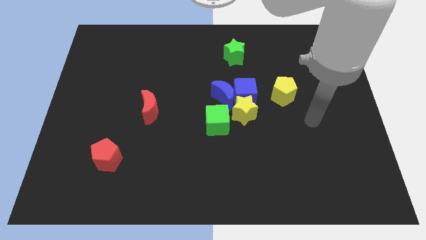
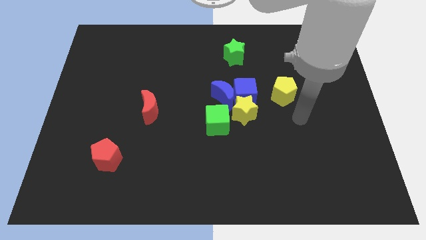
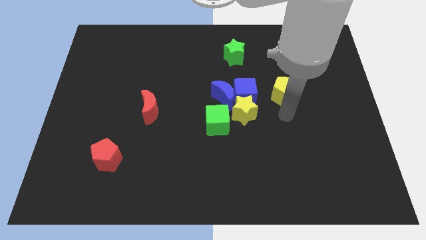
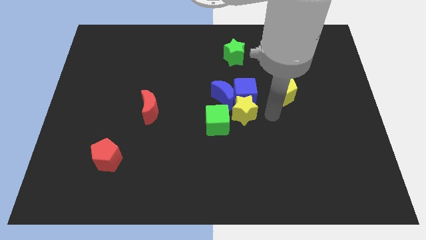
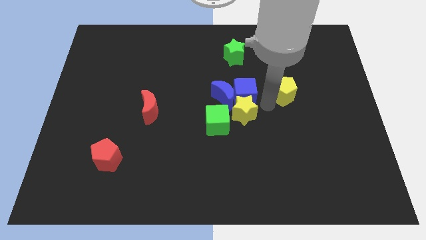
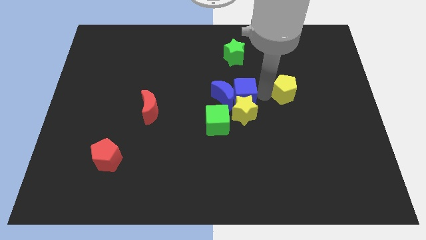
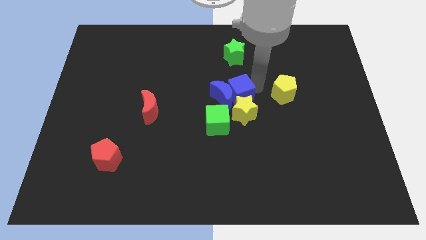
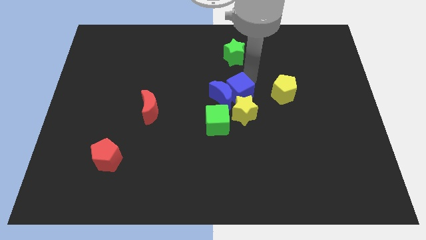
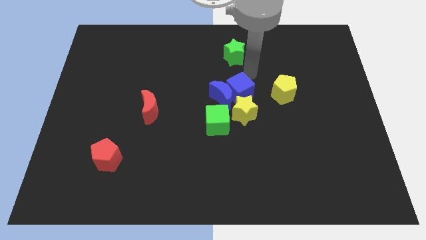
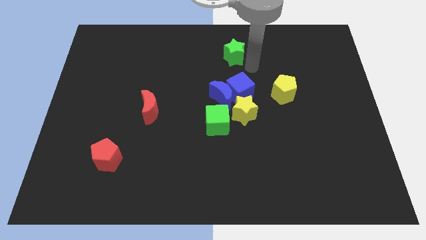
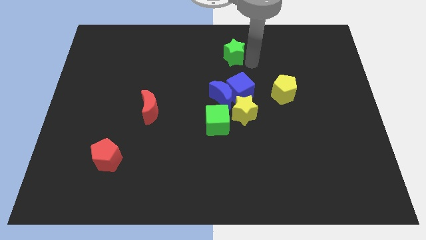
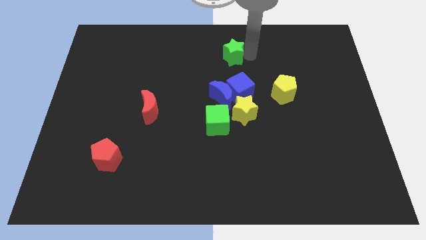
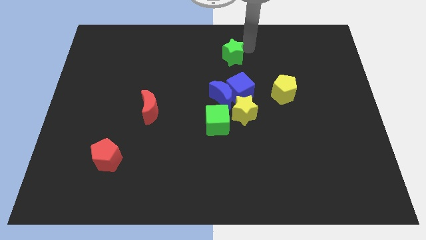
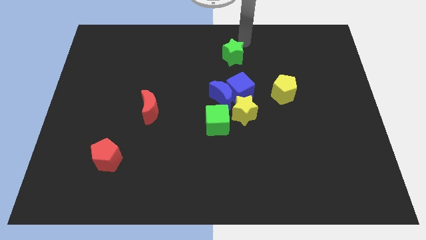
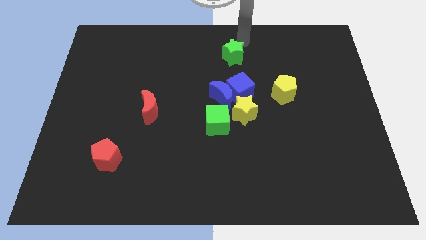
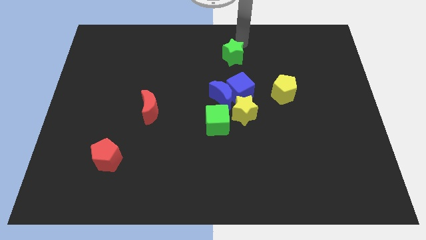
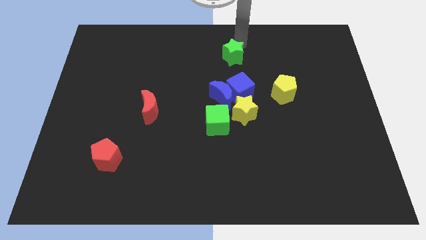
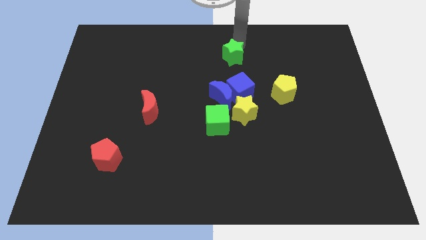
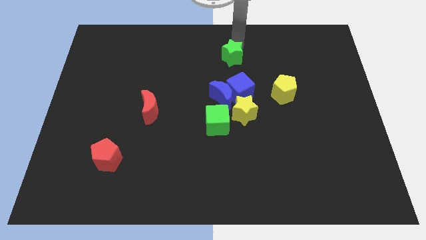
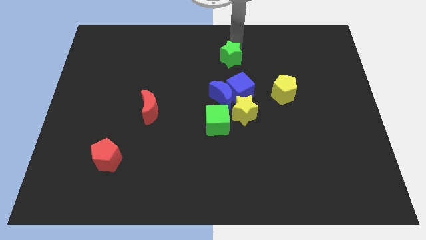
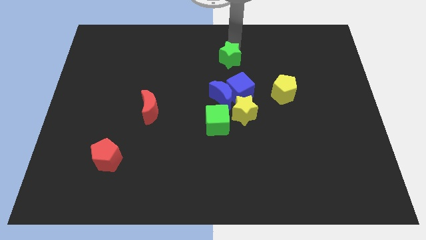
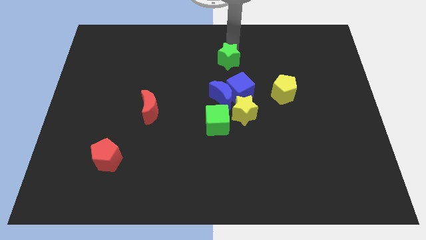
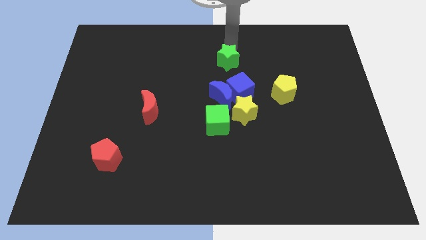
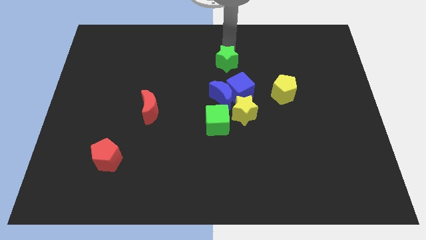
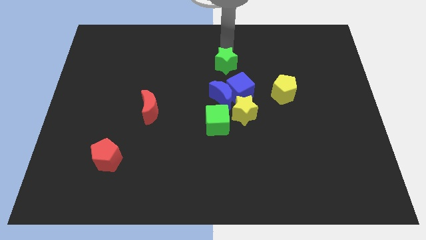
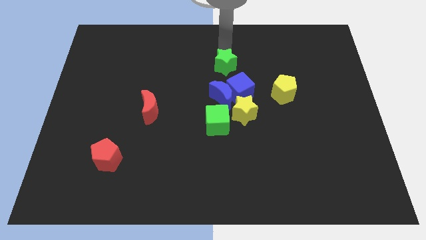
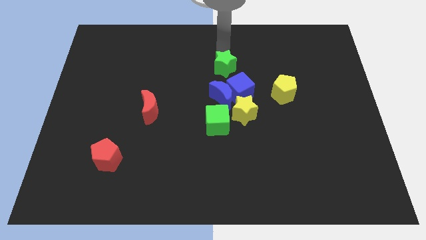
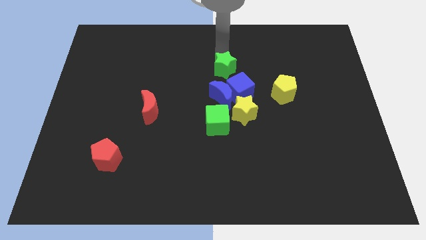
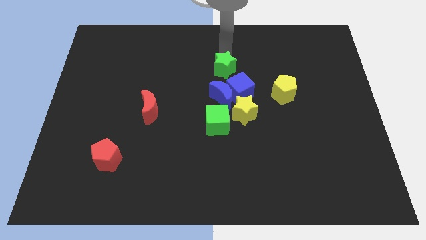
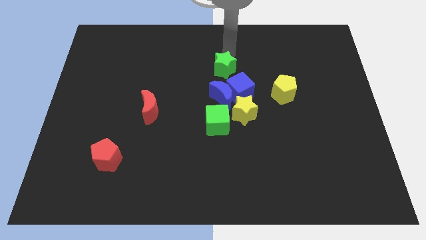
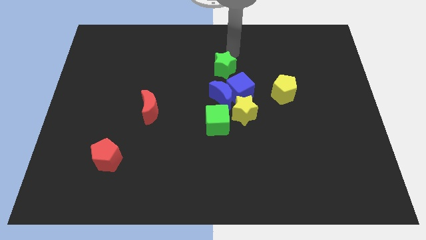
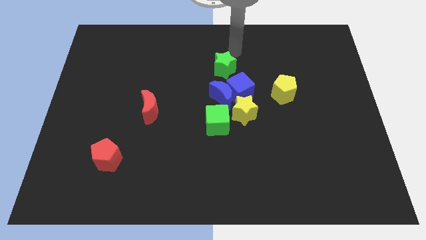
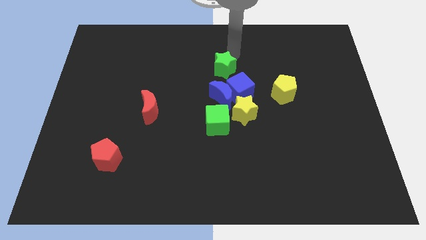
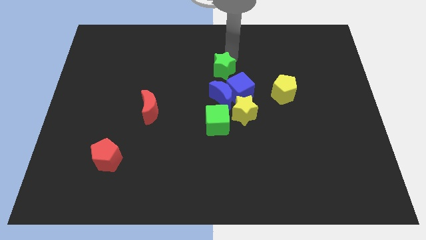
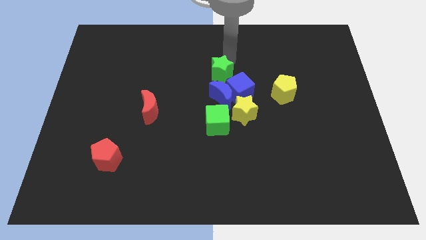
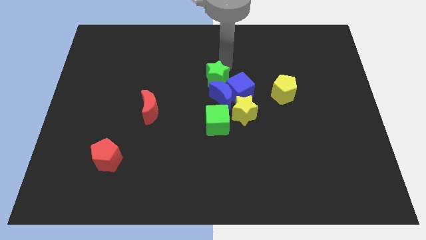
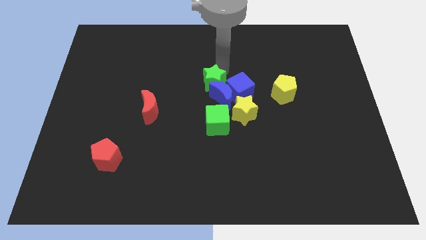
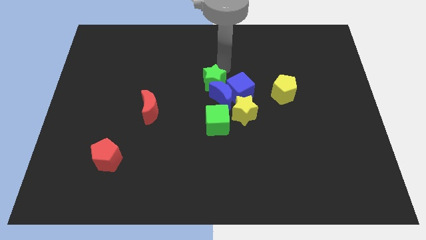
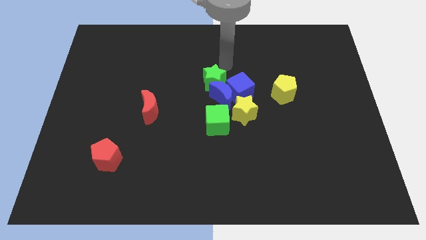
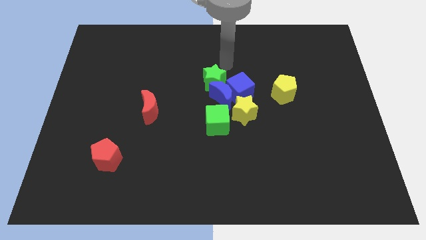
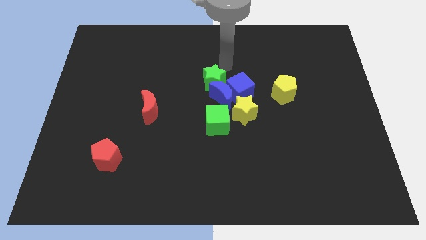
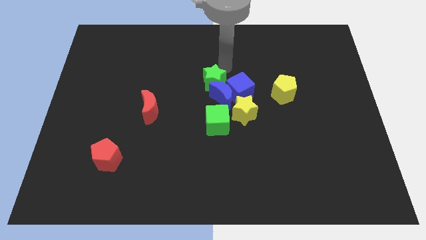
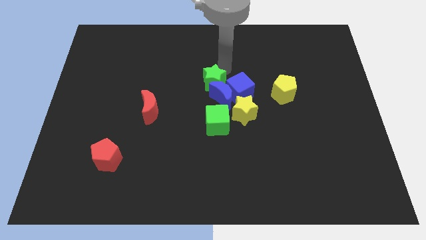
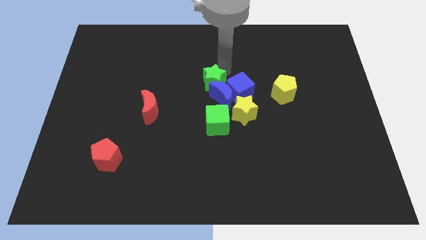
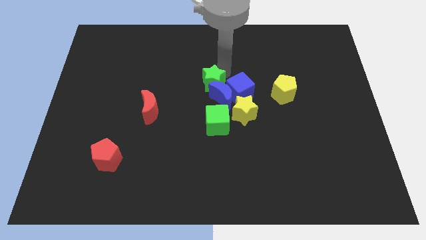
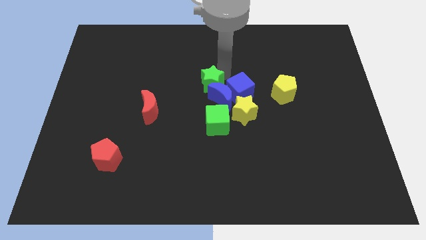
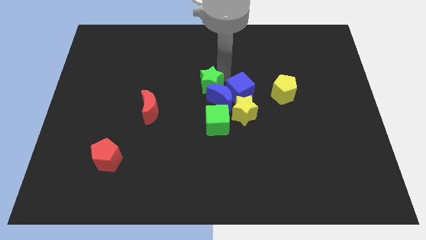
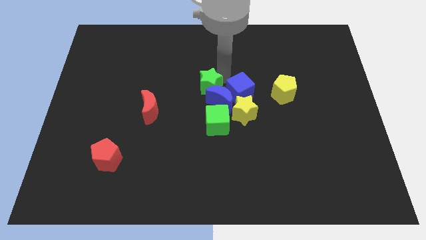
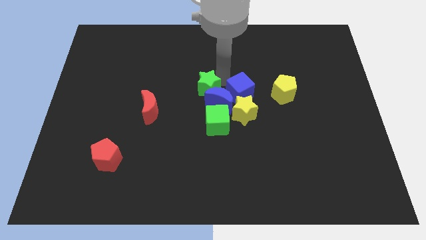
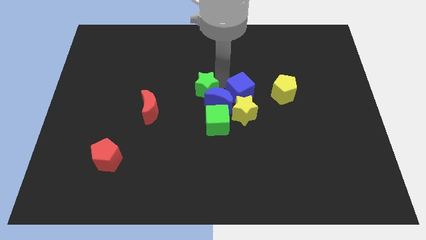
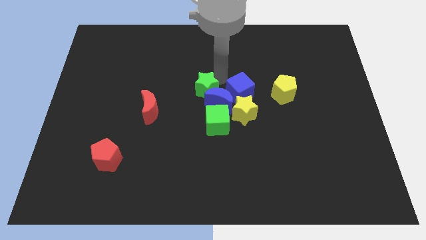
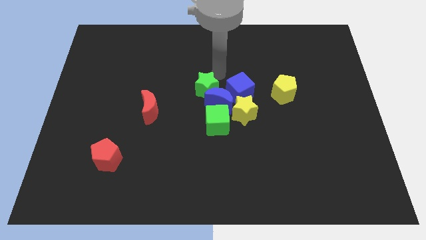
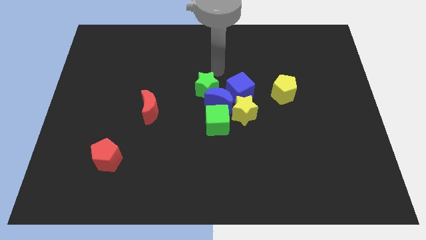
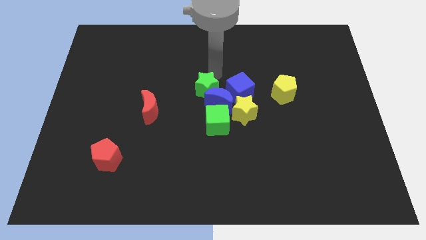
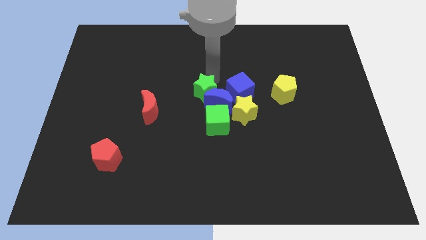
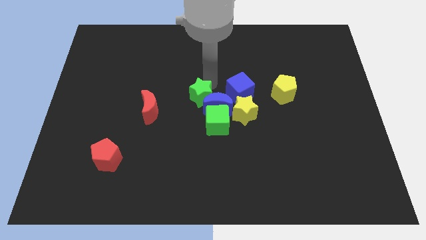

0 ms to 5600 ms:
put the green star right of the red moon

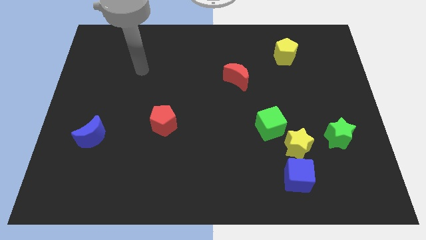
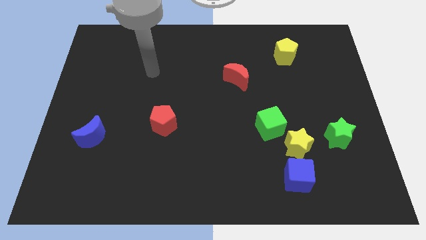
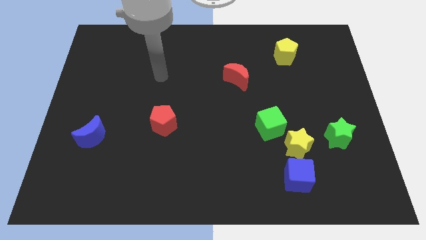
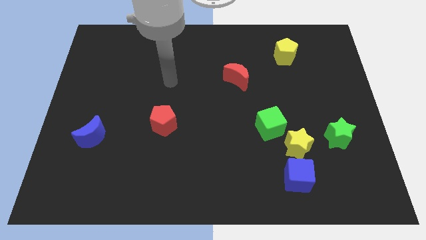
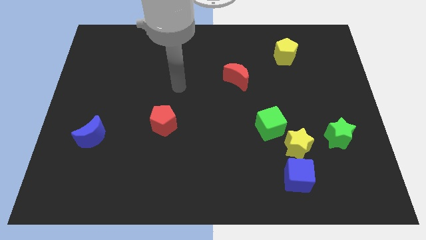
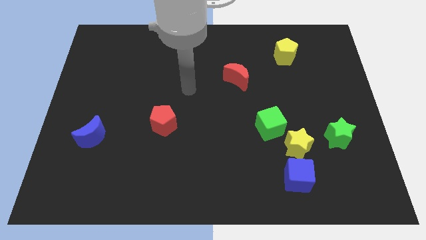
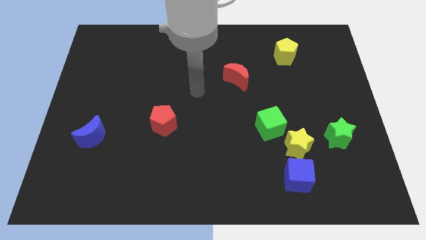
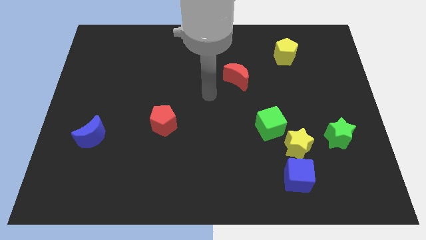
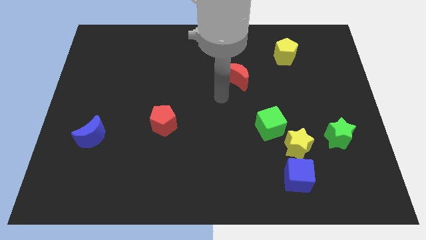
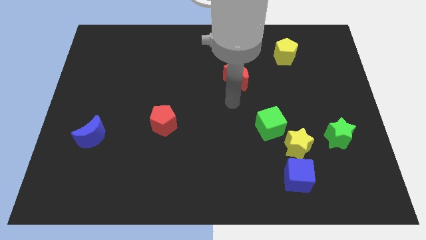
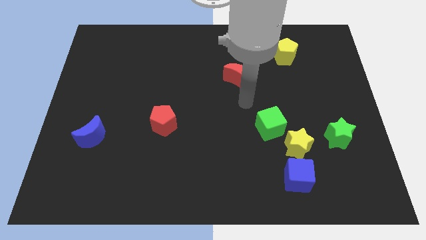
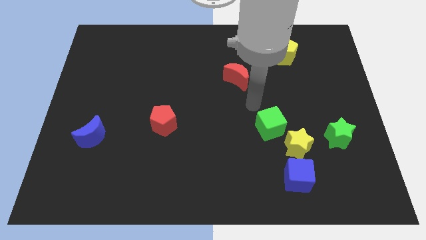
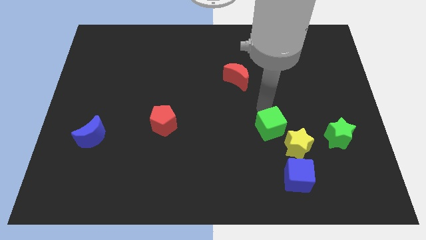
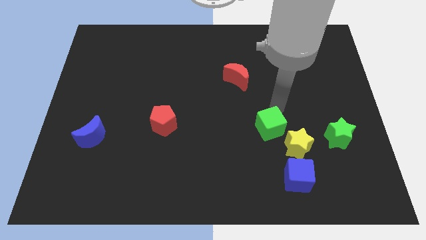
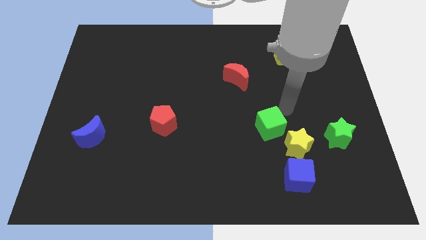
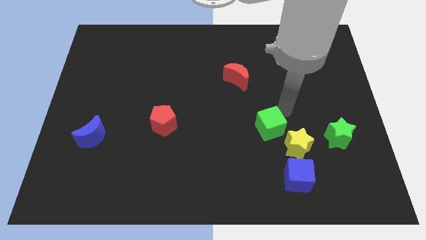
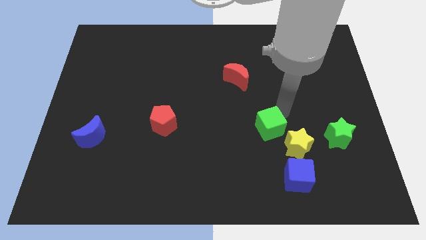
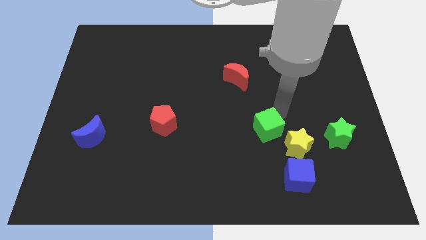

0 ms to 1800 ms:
move the green cube left of the yellow star

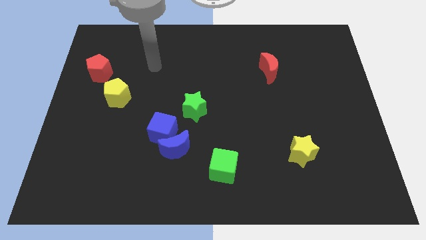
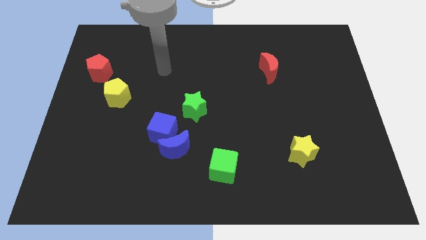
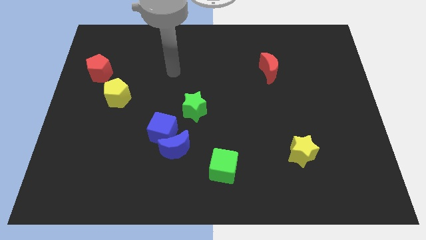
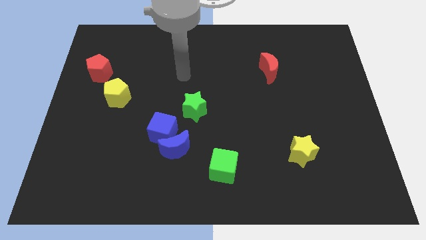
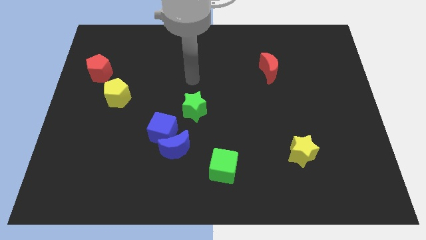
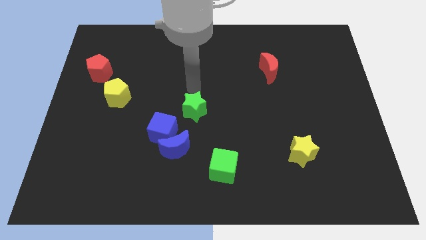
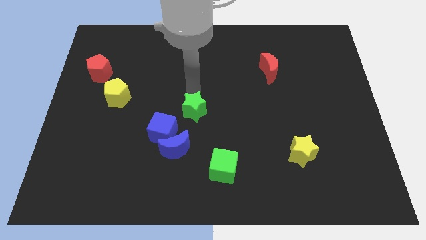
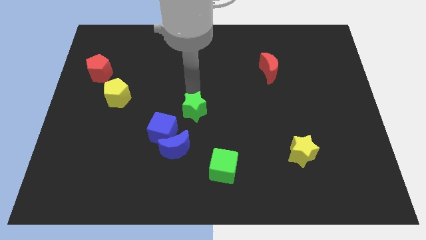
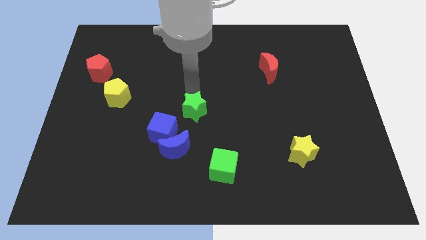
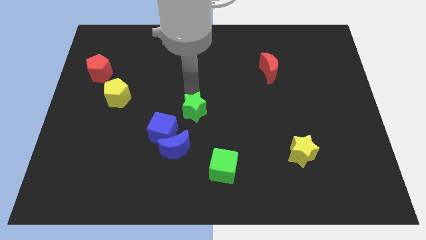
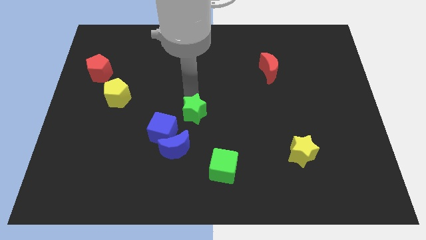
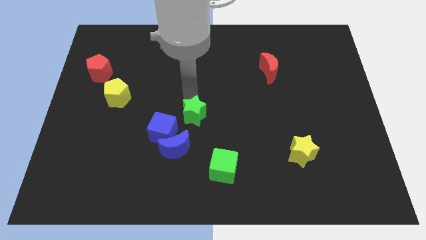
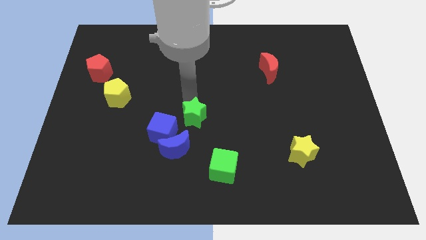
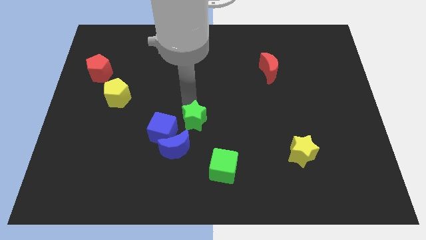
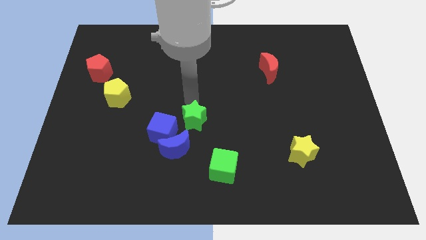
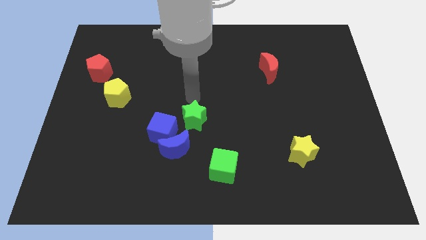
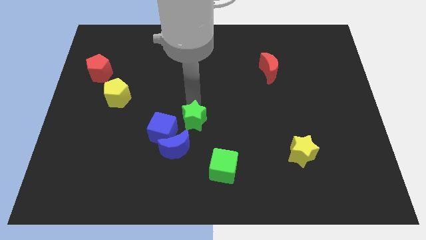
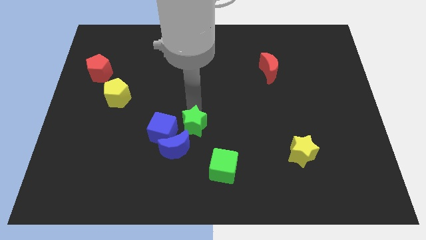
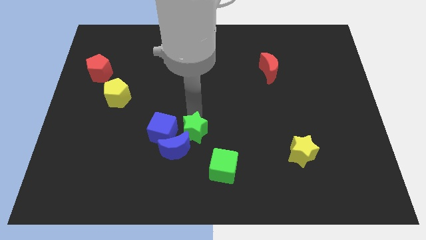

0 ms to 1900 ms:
push the green star to the top left side of the green cube
